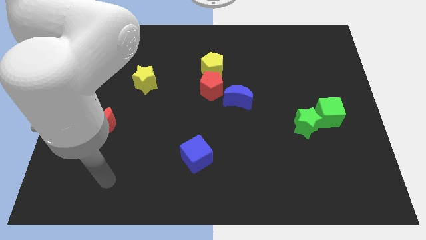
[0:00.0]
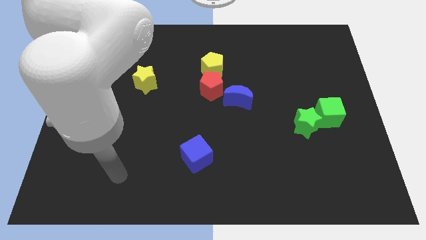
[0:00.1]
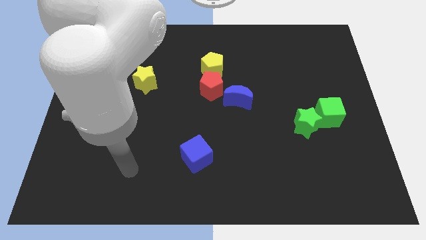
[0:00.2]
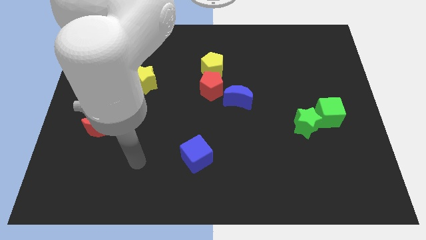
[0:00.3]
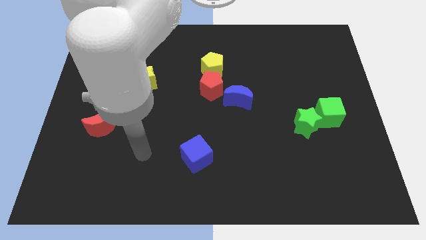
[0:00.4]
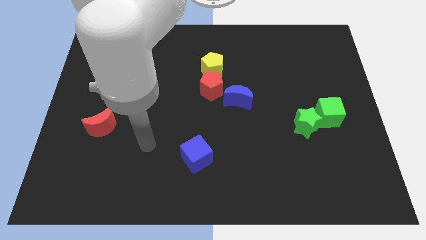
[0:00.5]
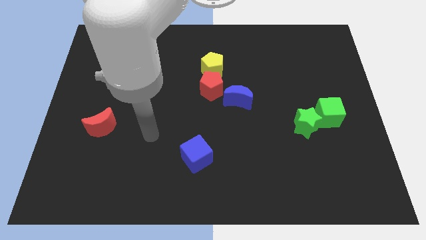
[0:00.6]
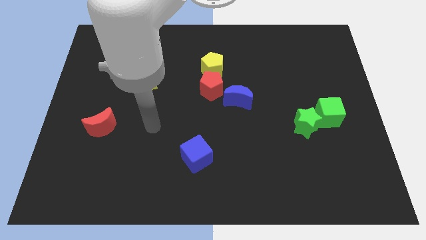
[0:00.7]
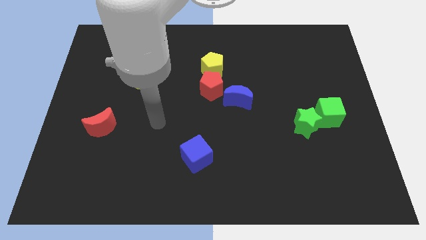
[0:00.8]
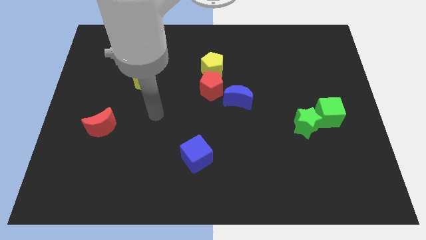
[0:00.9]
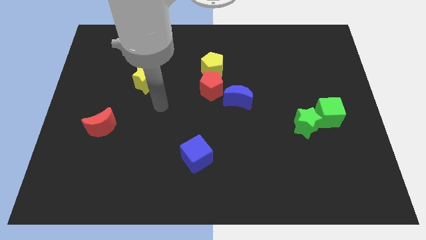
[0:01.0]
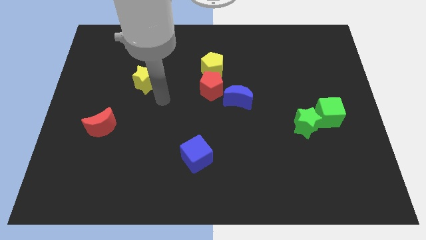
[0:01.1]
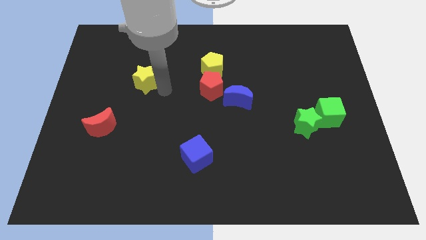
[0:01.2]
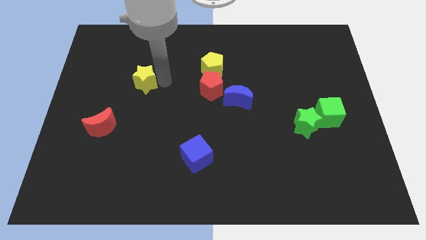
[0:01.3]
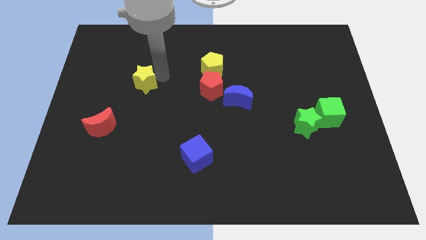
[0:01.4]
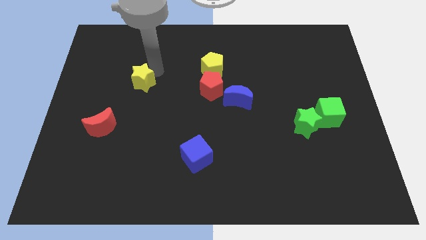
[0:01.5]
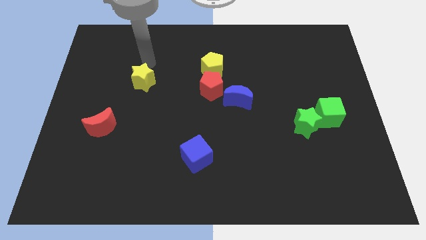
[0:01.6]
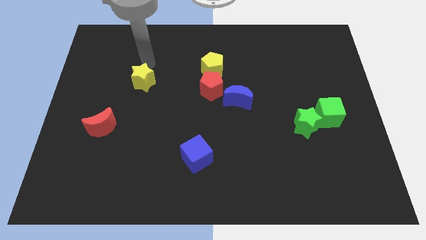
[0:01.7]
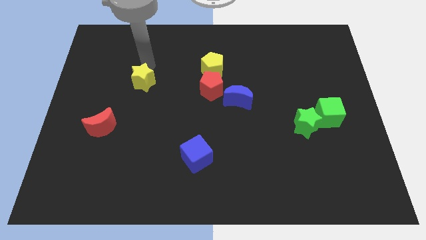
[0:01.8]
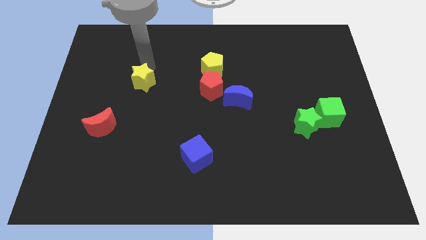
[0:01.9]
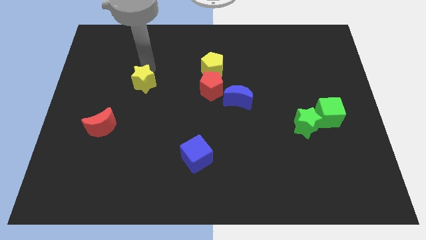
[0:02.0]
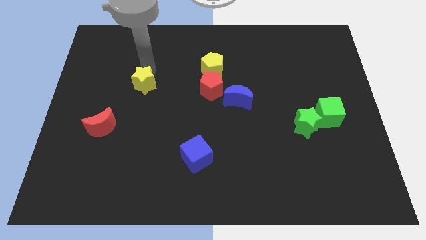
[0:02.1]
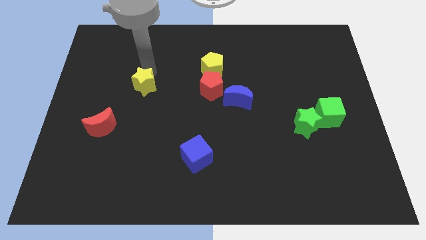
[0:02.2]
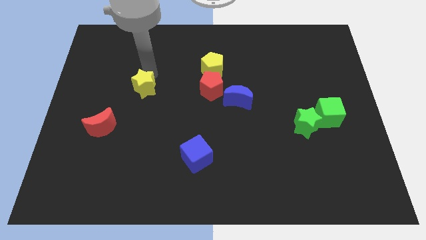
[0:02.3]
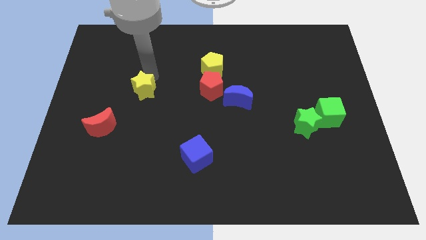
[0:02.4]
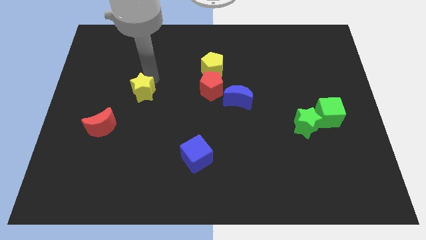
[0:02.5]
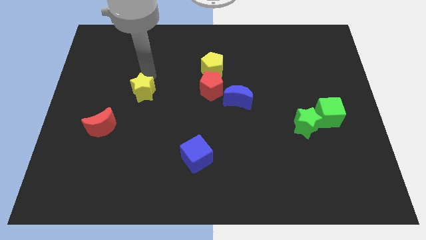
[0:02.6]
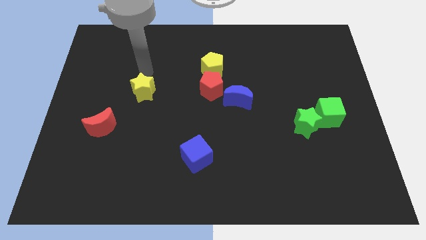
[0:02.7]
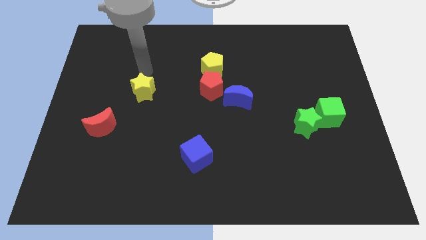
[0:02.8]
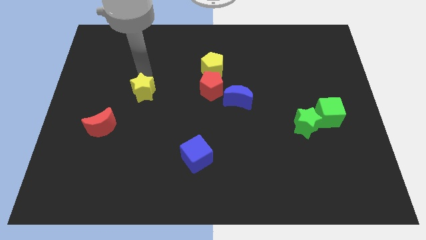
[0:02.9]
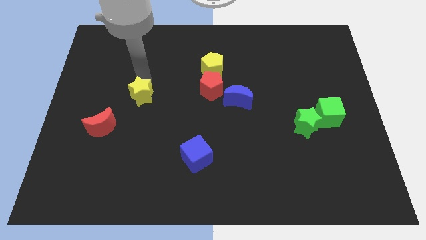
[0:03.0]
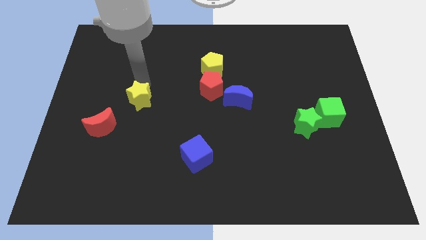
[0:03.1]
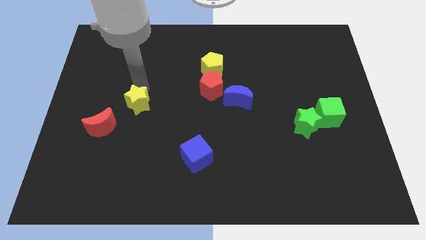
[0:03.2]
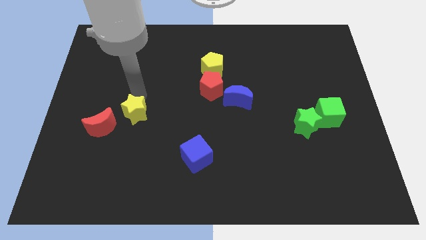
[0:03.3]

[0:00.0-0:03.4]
move the yellow star downwards a little

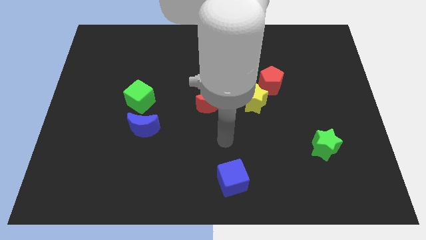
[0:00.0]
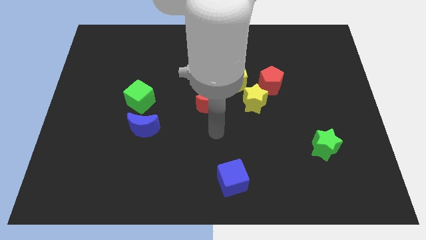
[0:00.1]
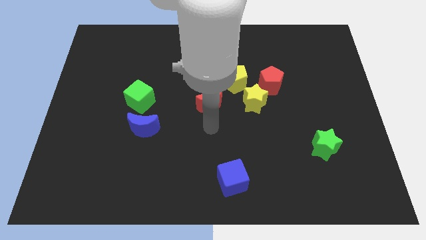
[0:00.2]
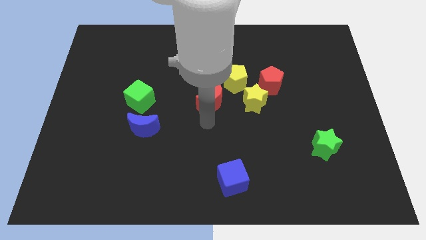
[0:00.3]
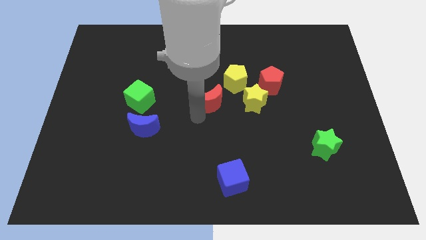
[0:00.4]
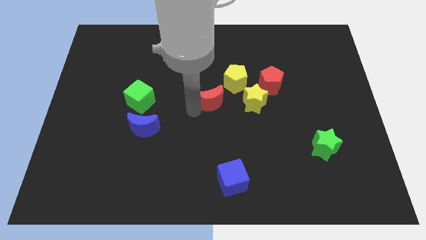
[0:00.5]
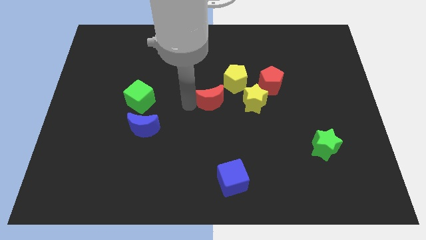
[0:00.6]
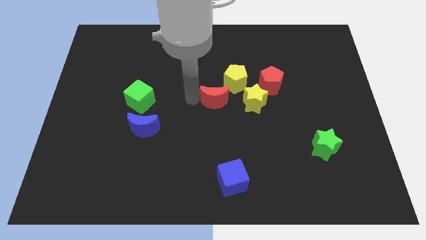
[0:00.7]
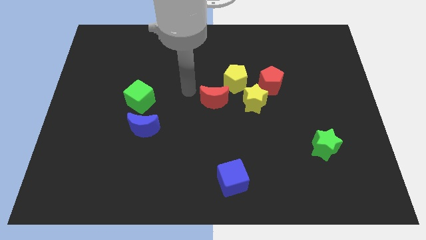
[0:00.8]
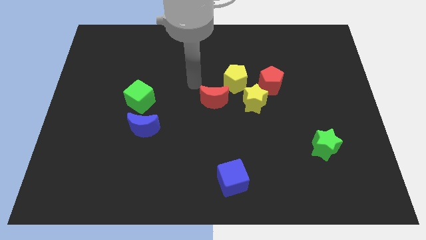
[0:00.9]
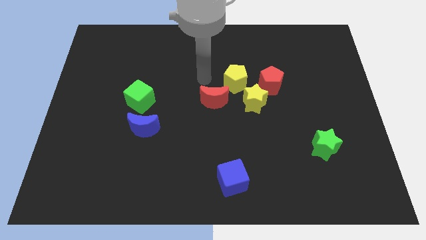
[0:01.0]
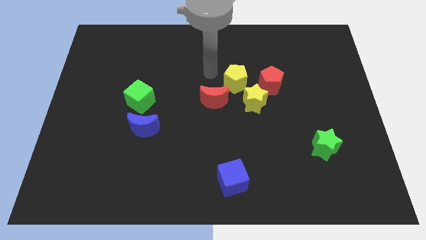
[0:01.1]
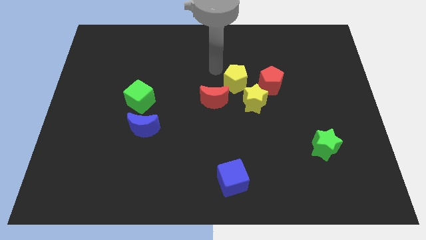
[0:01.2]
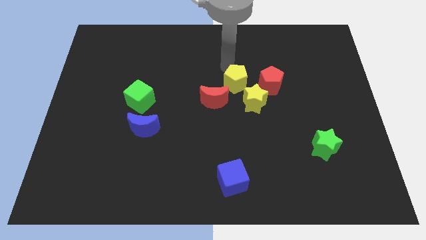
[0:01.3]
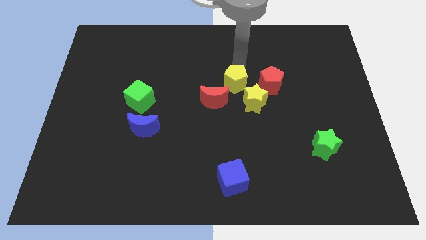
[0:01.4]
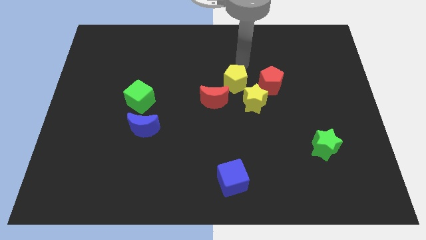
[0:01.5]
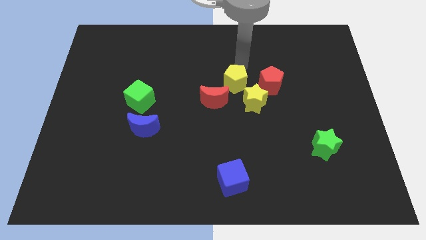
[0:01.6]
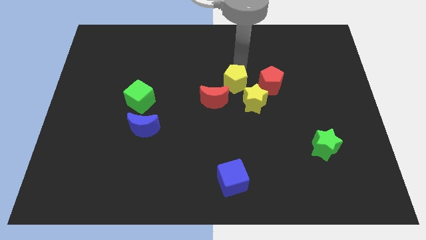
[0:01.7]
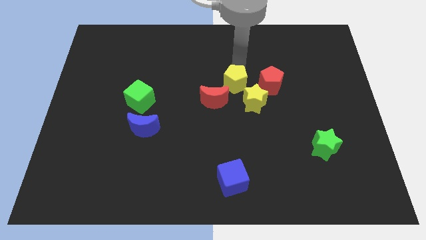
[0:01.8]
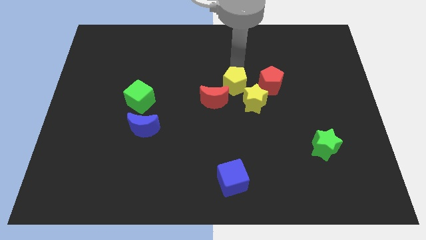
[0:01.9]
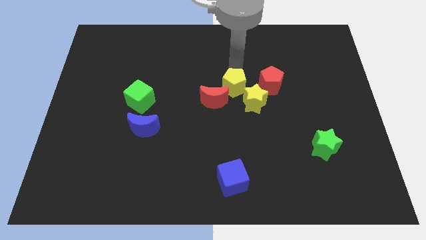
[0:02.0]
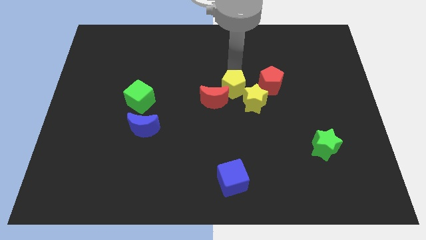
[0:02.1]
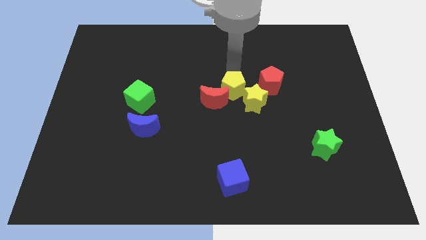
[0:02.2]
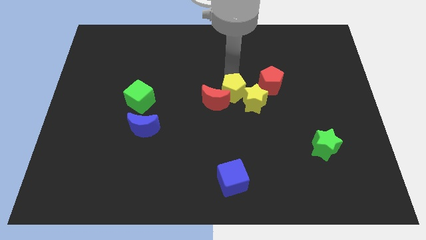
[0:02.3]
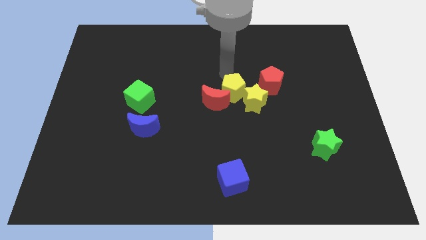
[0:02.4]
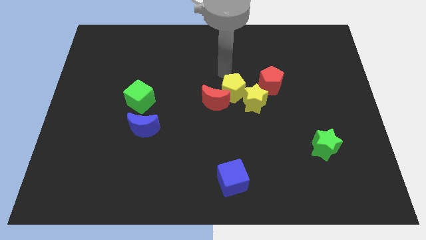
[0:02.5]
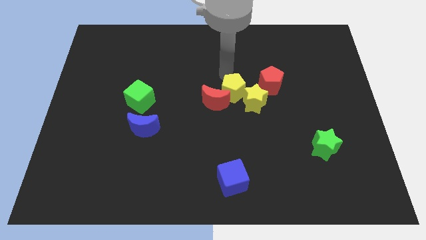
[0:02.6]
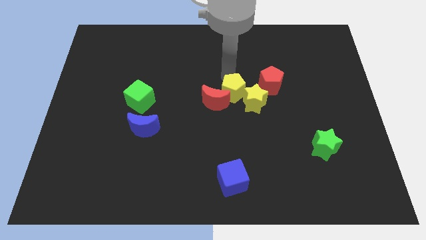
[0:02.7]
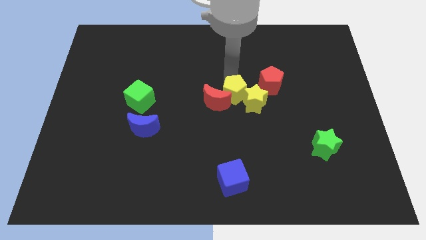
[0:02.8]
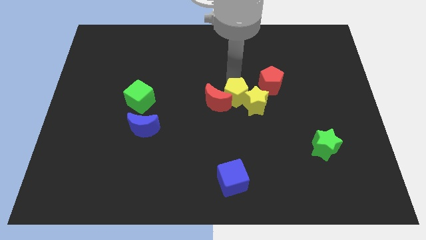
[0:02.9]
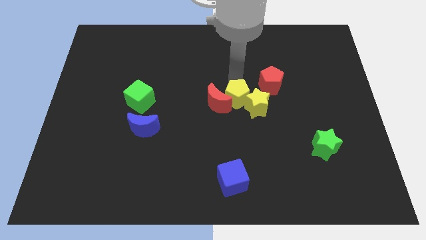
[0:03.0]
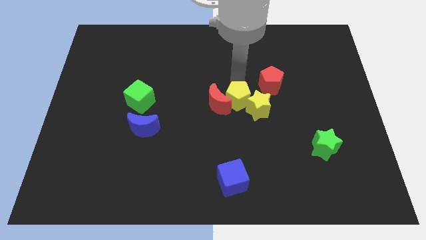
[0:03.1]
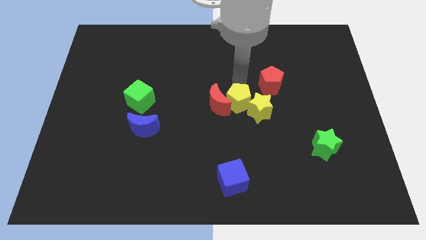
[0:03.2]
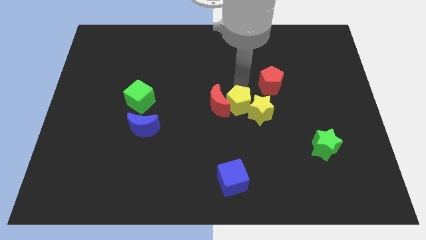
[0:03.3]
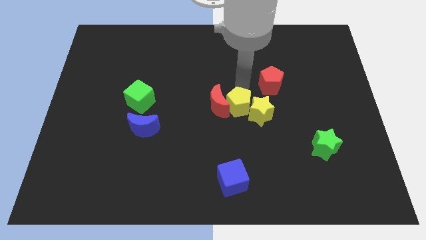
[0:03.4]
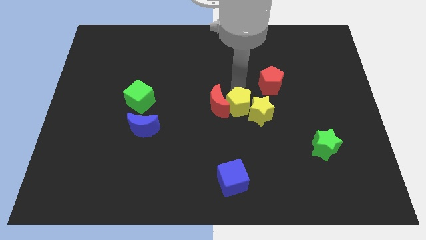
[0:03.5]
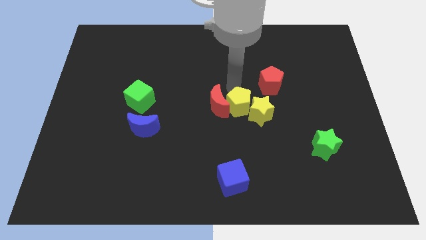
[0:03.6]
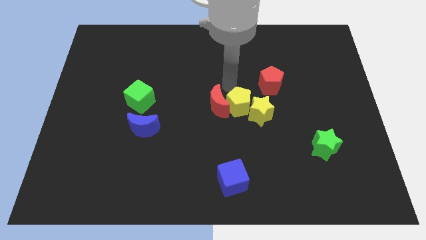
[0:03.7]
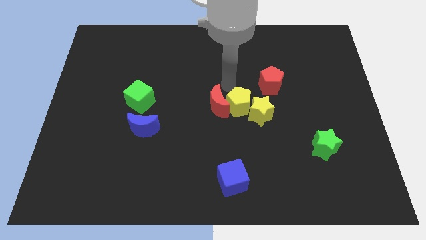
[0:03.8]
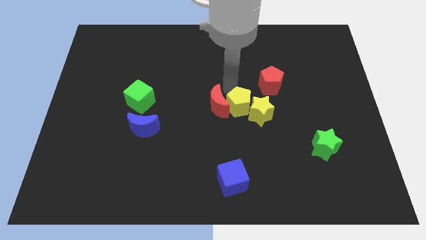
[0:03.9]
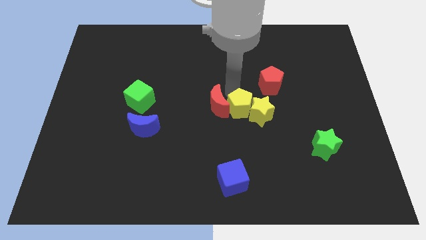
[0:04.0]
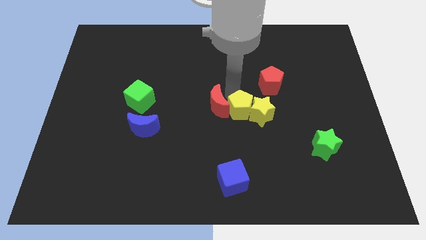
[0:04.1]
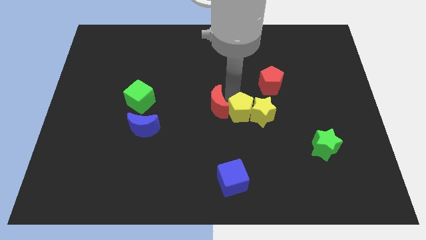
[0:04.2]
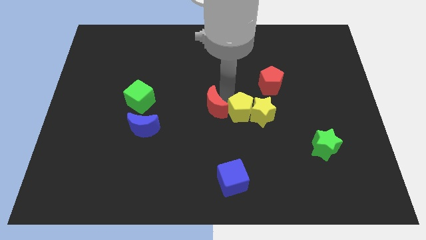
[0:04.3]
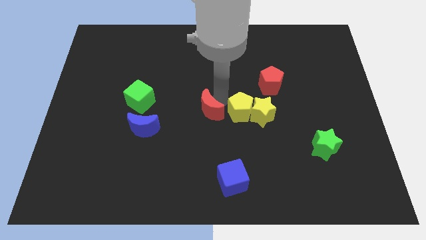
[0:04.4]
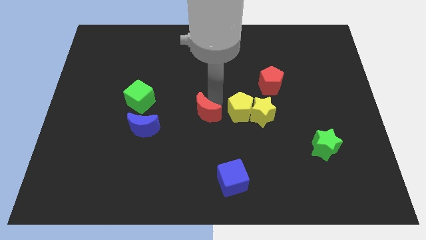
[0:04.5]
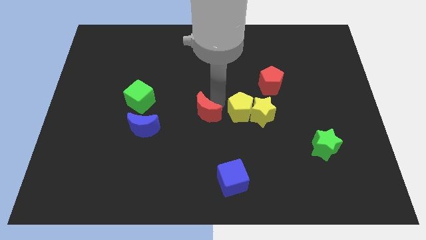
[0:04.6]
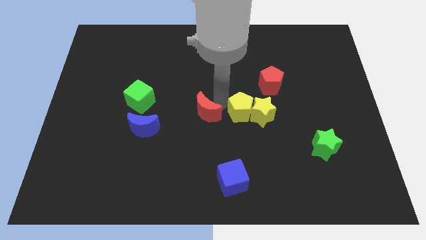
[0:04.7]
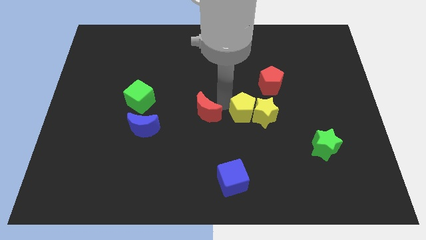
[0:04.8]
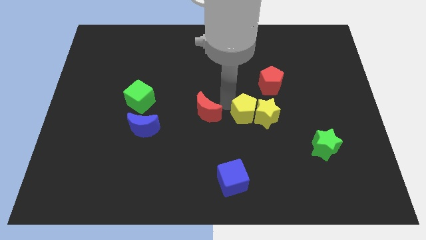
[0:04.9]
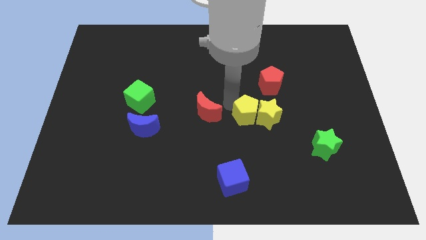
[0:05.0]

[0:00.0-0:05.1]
move the yellow pentagon somewhat down and right diagonally
